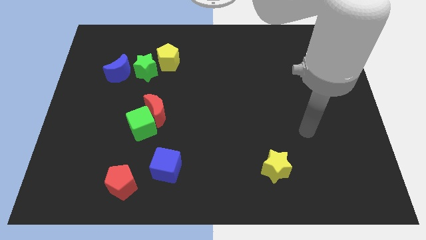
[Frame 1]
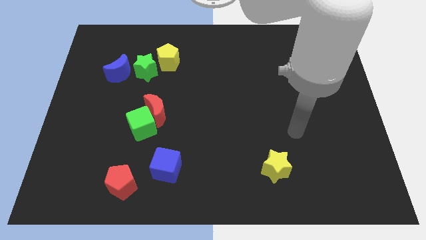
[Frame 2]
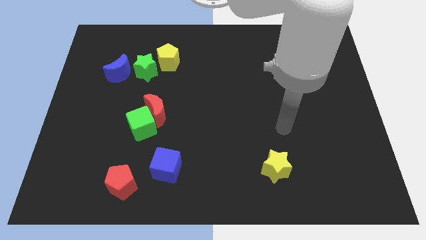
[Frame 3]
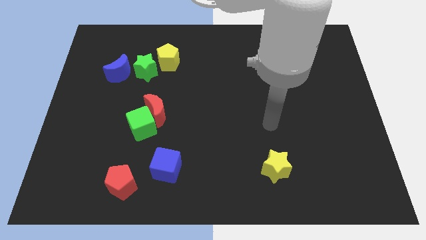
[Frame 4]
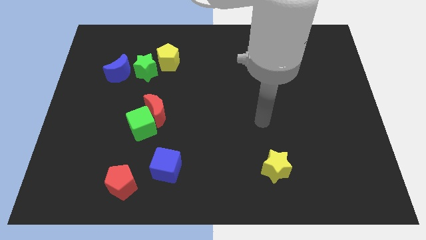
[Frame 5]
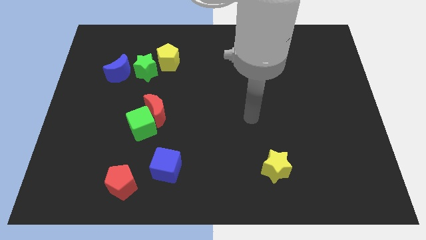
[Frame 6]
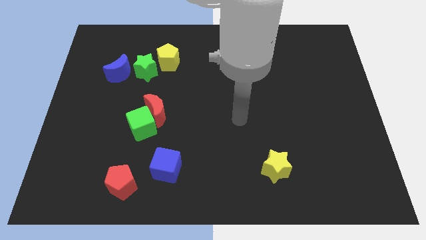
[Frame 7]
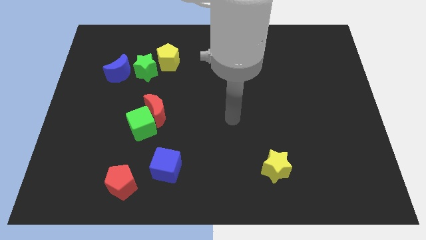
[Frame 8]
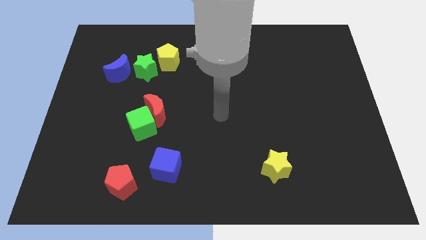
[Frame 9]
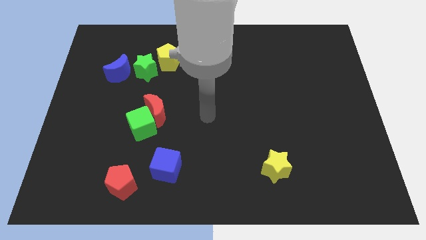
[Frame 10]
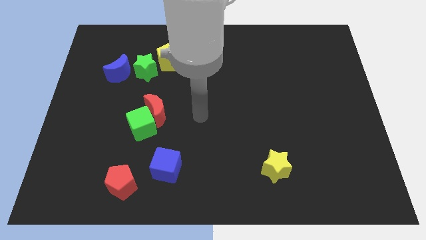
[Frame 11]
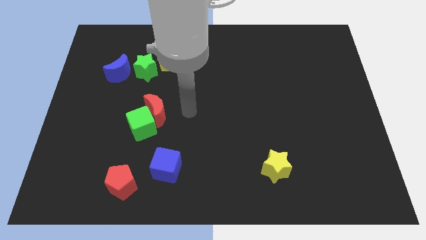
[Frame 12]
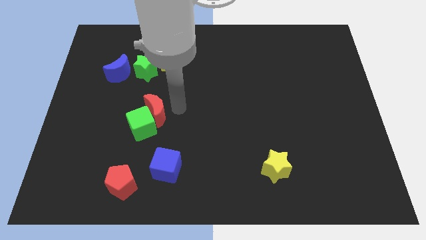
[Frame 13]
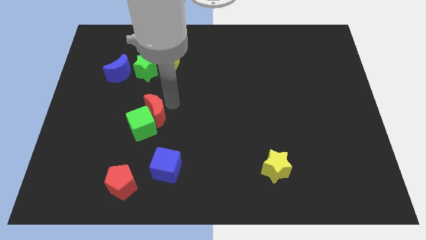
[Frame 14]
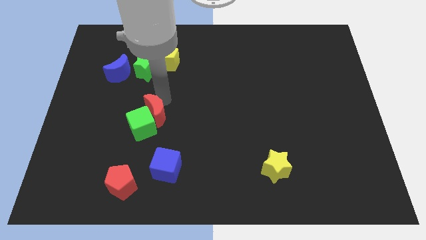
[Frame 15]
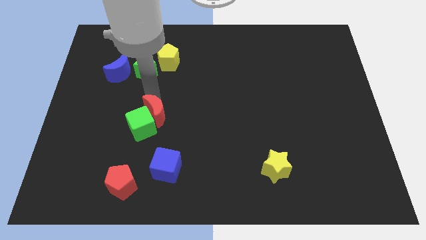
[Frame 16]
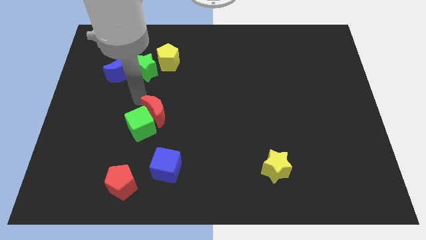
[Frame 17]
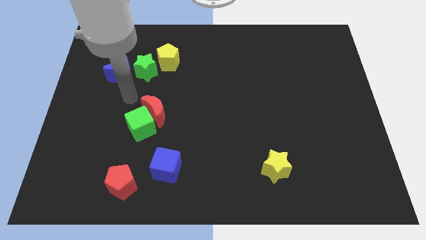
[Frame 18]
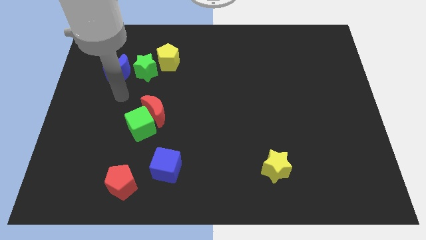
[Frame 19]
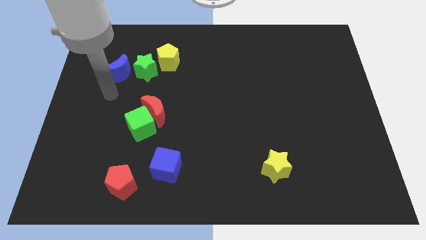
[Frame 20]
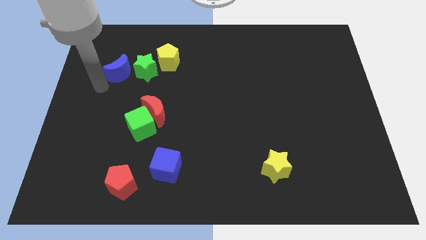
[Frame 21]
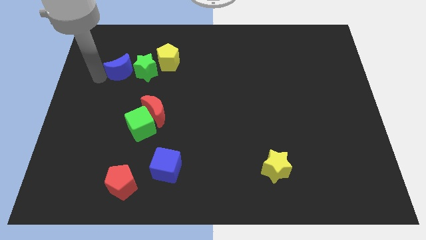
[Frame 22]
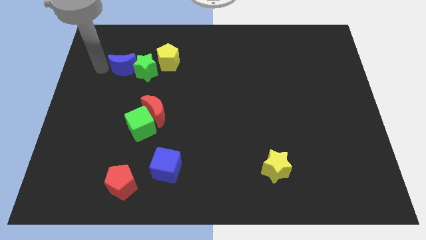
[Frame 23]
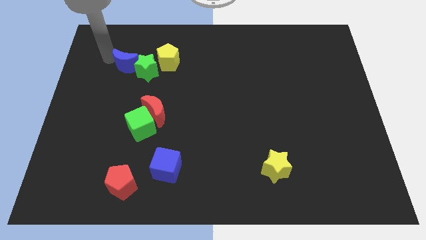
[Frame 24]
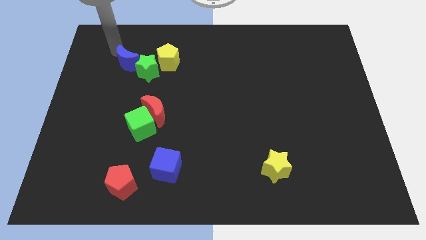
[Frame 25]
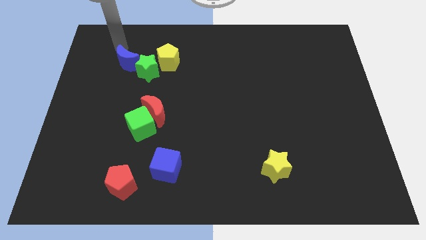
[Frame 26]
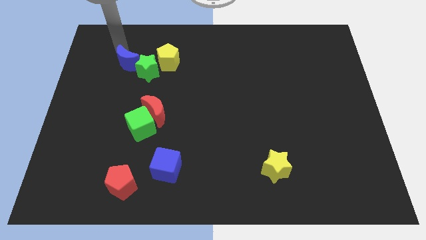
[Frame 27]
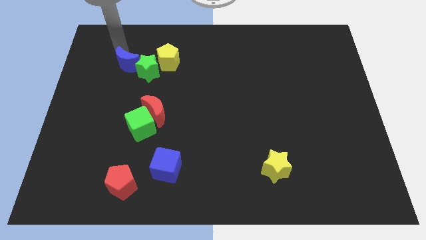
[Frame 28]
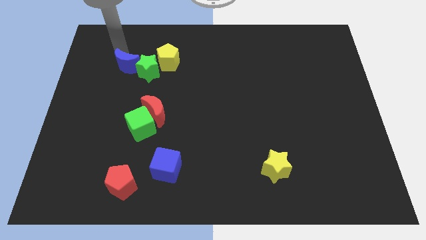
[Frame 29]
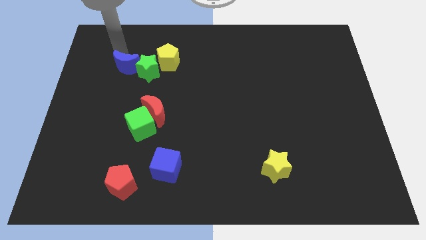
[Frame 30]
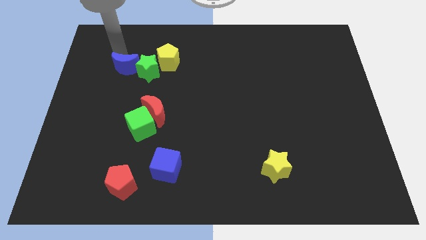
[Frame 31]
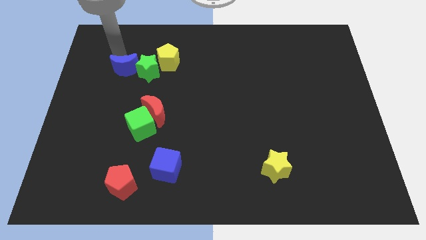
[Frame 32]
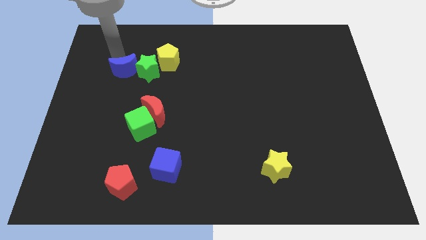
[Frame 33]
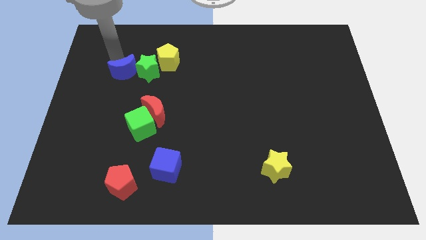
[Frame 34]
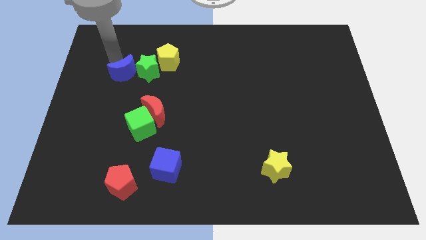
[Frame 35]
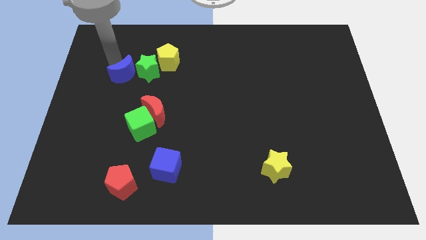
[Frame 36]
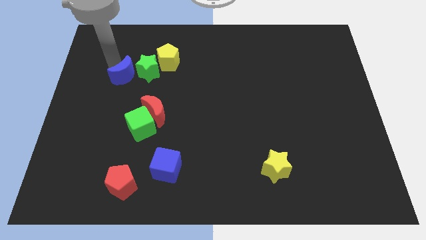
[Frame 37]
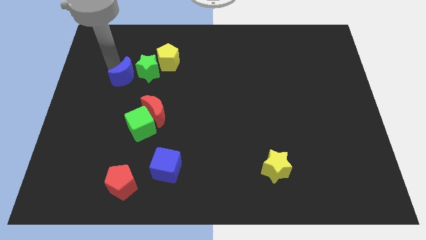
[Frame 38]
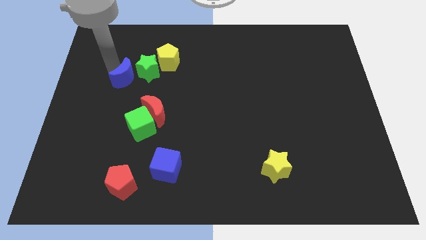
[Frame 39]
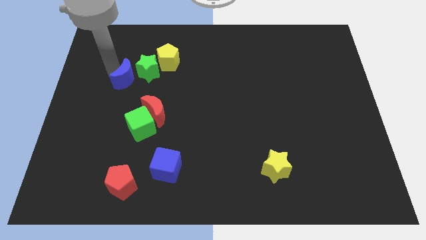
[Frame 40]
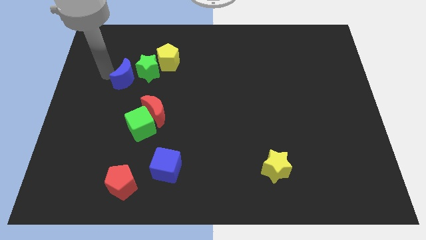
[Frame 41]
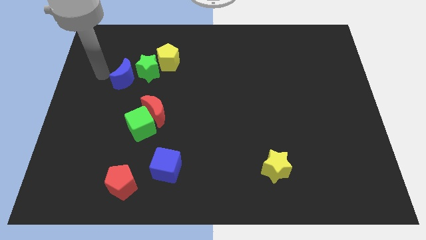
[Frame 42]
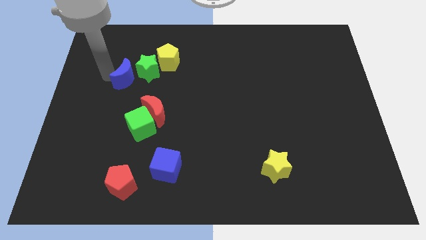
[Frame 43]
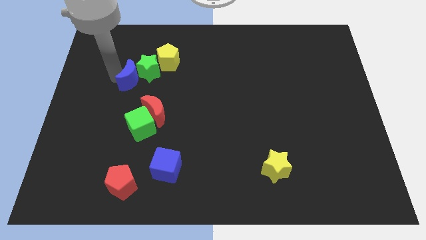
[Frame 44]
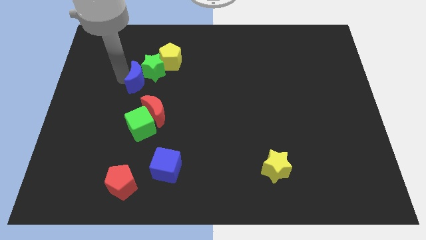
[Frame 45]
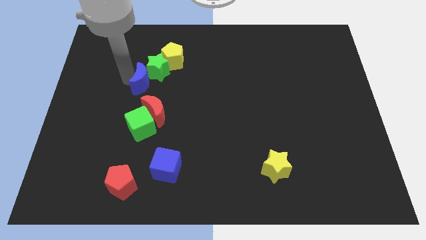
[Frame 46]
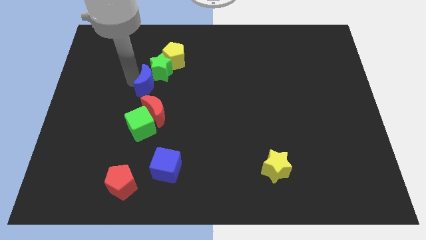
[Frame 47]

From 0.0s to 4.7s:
slightly push the blue moon to the right

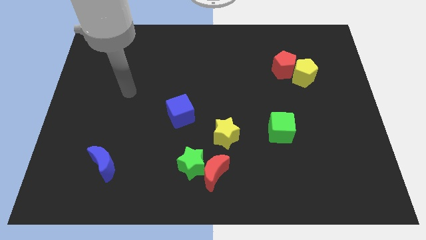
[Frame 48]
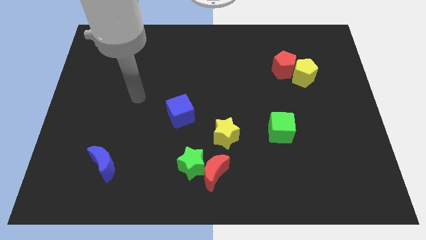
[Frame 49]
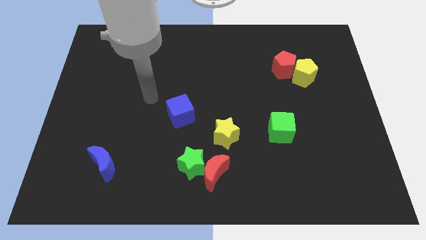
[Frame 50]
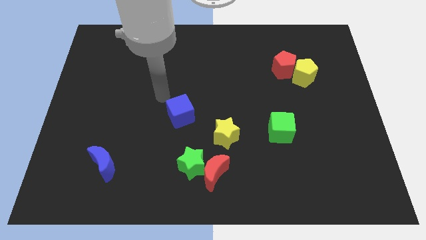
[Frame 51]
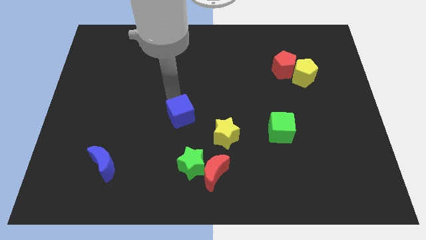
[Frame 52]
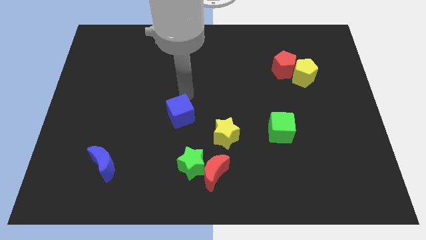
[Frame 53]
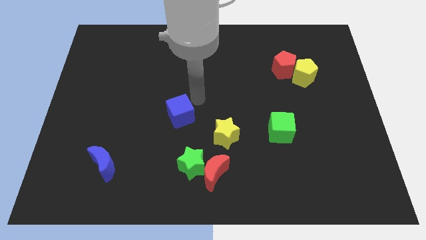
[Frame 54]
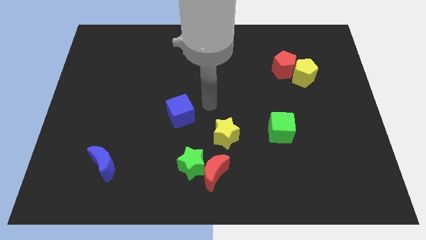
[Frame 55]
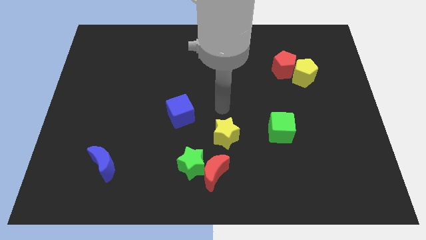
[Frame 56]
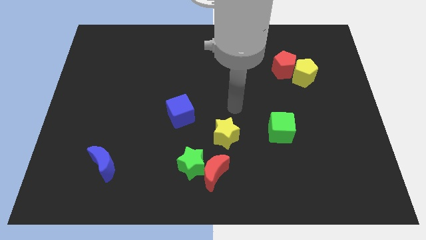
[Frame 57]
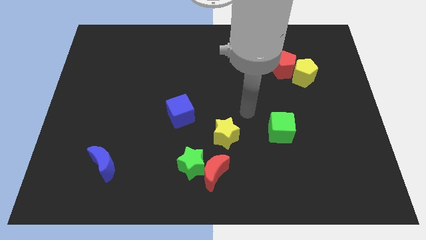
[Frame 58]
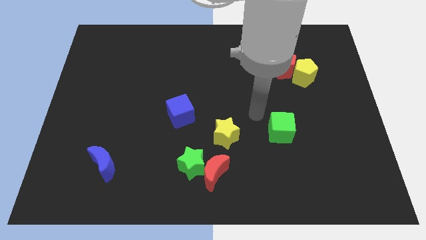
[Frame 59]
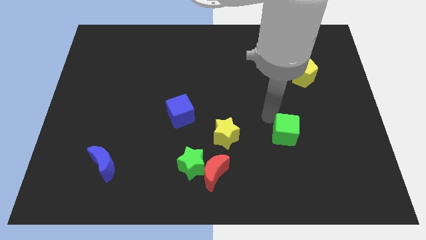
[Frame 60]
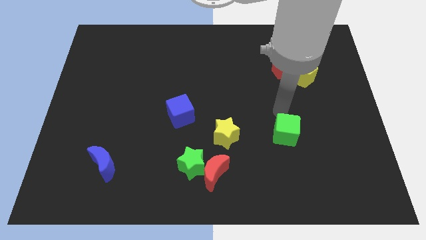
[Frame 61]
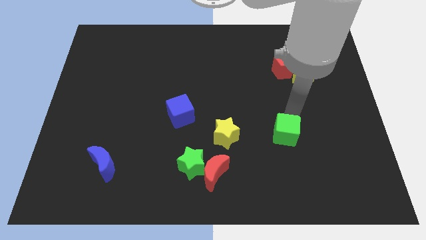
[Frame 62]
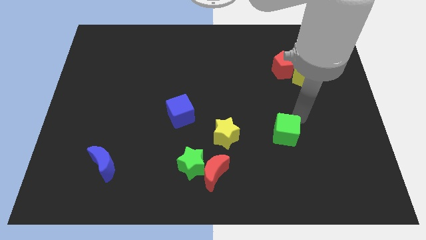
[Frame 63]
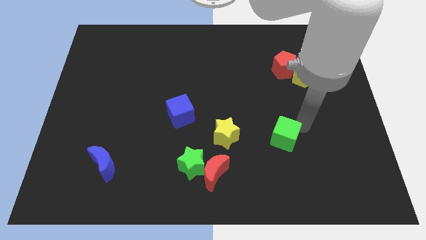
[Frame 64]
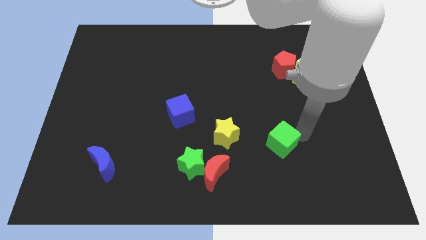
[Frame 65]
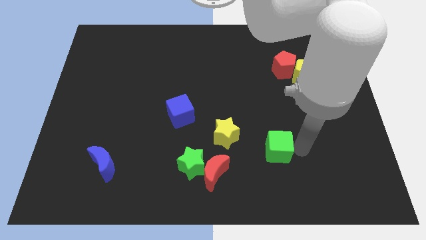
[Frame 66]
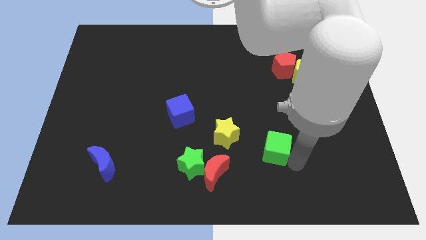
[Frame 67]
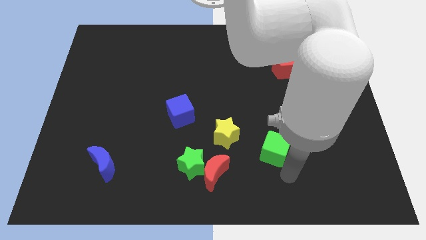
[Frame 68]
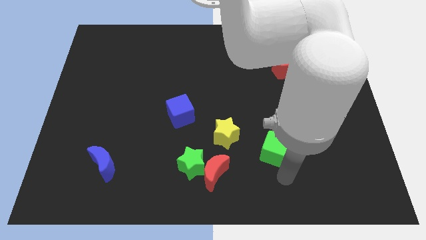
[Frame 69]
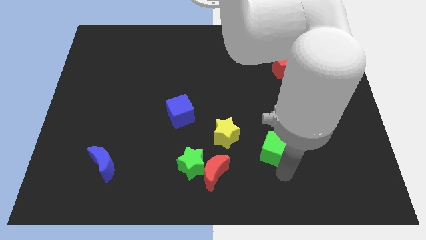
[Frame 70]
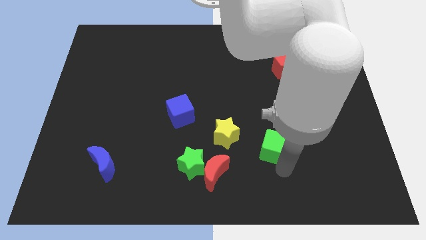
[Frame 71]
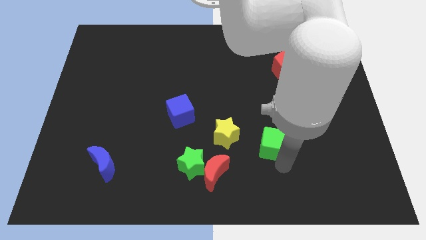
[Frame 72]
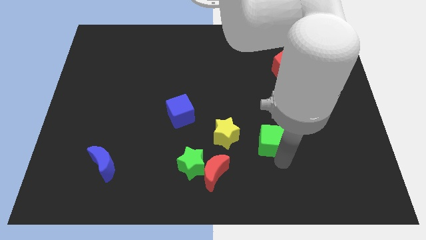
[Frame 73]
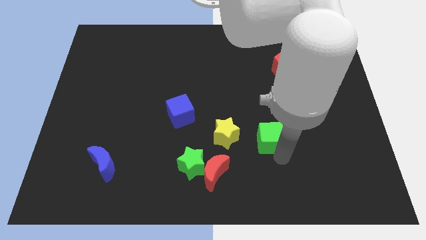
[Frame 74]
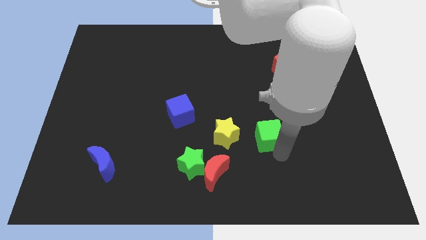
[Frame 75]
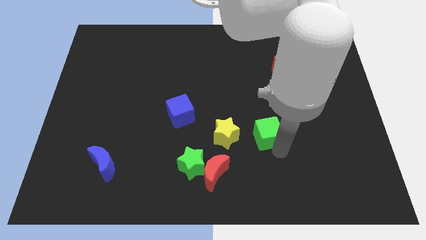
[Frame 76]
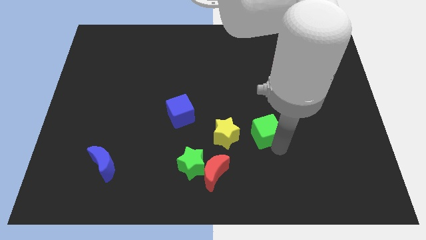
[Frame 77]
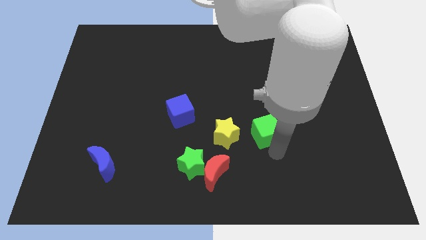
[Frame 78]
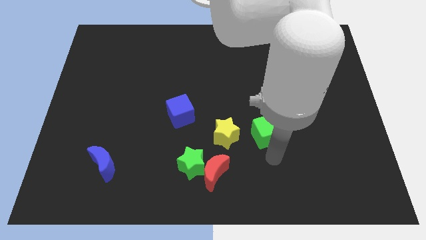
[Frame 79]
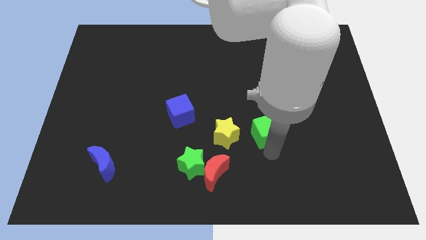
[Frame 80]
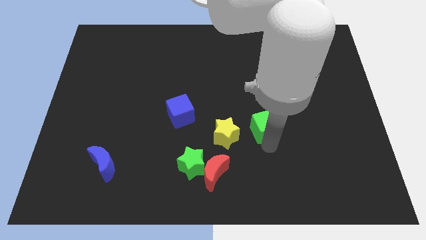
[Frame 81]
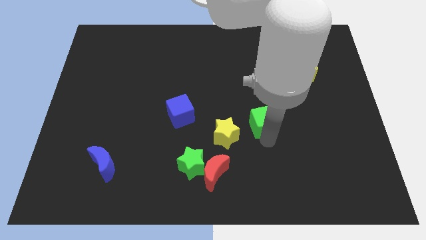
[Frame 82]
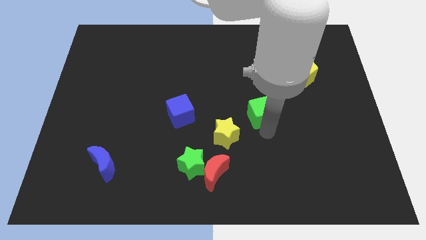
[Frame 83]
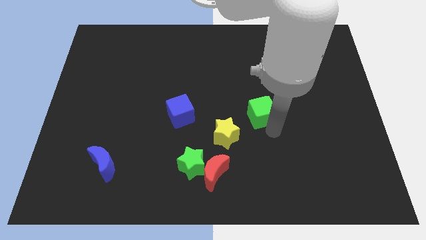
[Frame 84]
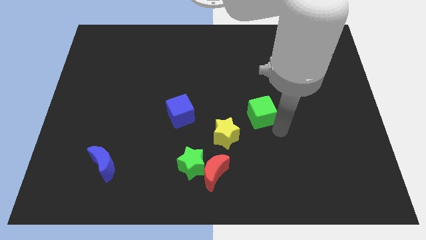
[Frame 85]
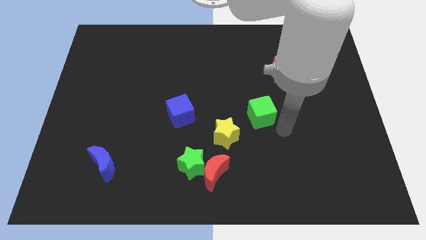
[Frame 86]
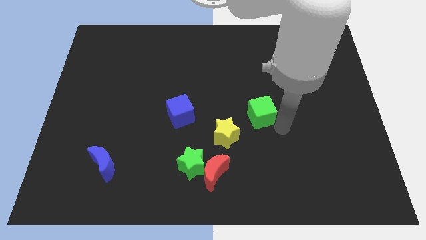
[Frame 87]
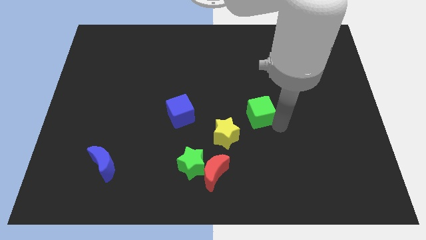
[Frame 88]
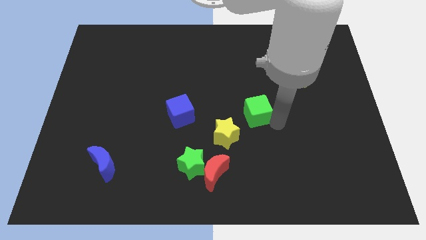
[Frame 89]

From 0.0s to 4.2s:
slide the green cube a little bit up and left
